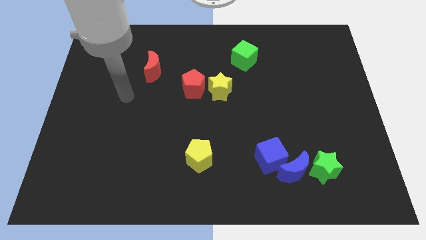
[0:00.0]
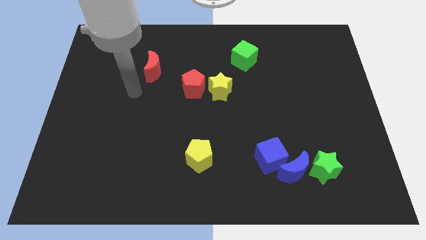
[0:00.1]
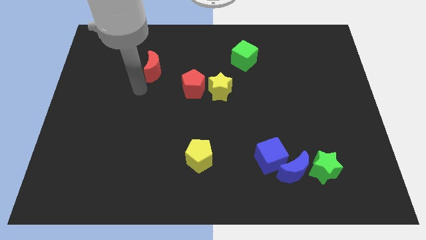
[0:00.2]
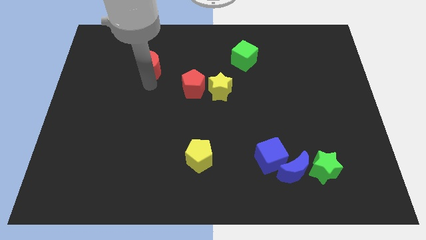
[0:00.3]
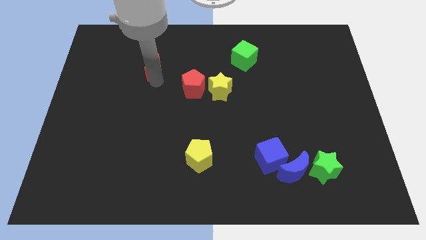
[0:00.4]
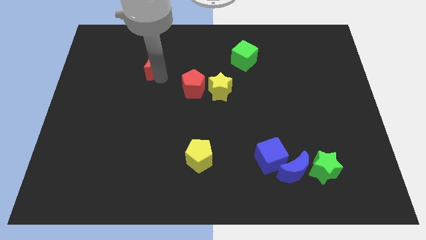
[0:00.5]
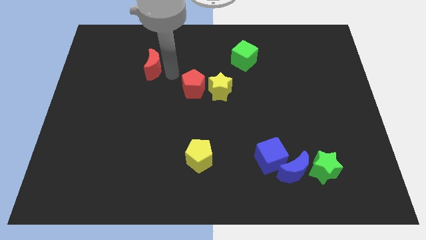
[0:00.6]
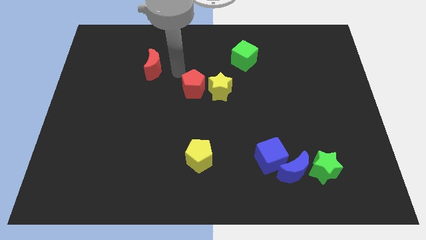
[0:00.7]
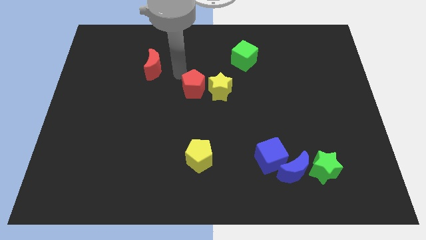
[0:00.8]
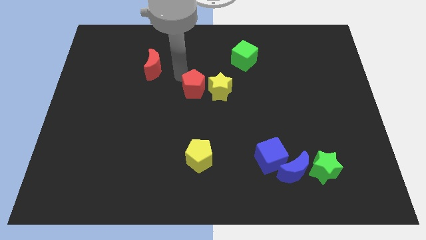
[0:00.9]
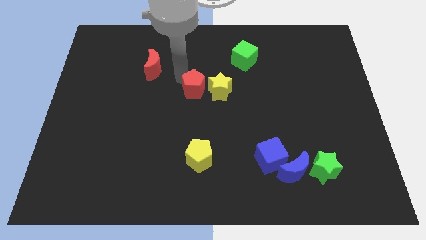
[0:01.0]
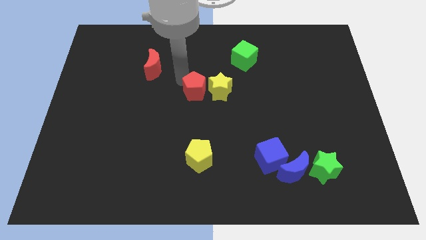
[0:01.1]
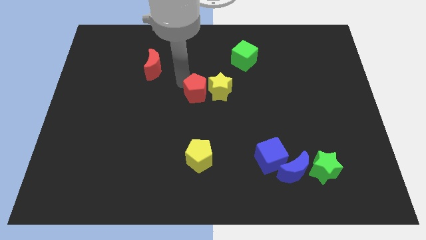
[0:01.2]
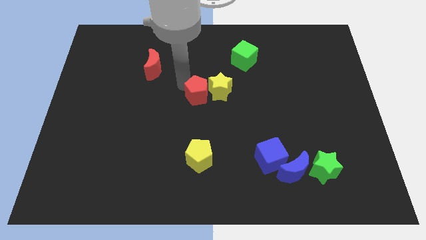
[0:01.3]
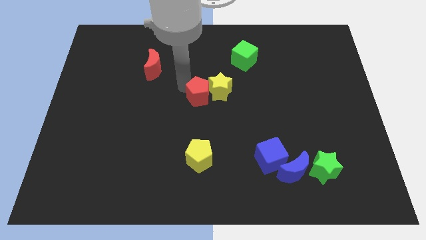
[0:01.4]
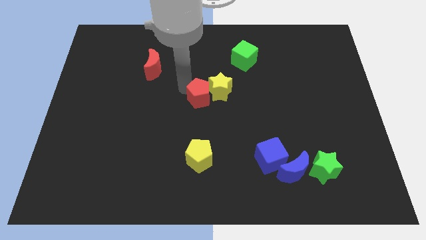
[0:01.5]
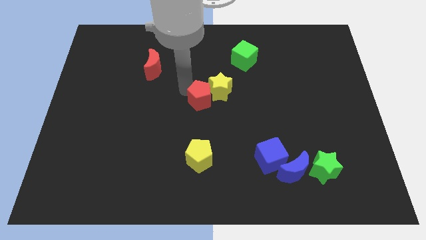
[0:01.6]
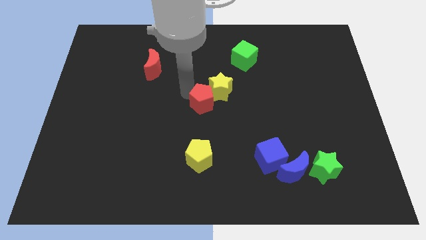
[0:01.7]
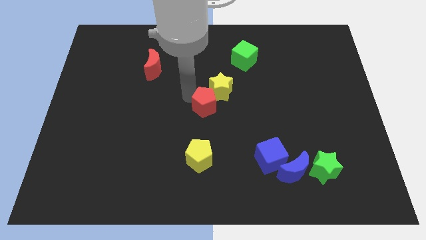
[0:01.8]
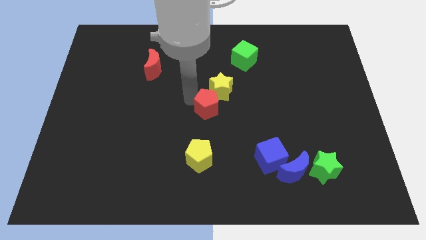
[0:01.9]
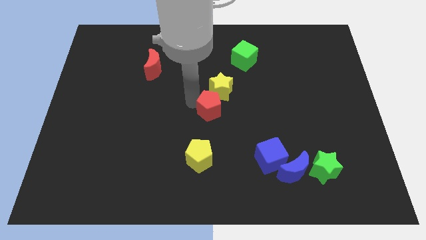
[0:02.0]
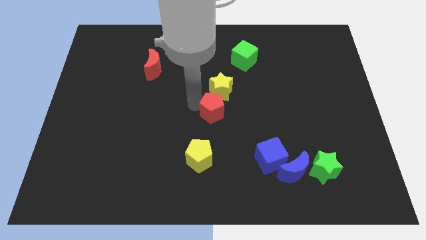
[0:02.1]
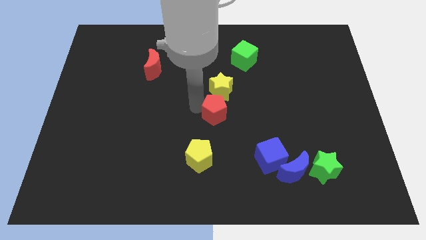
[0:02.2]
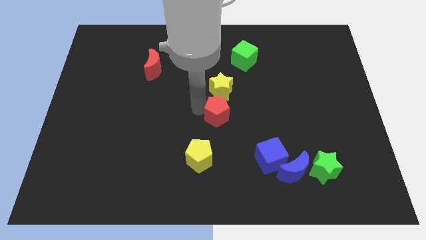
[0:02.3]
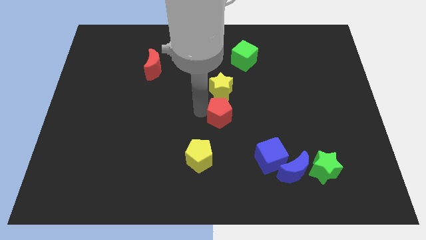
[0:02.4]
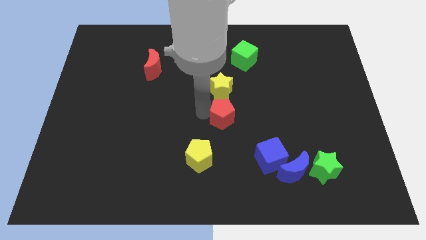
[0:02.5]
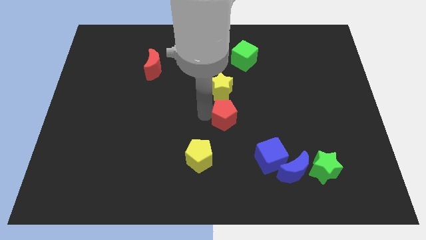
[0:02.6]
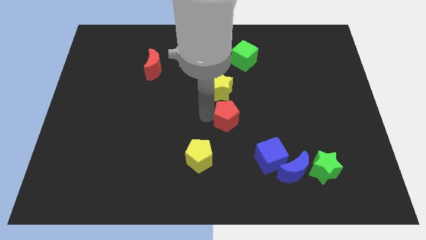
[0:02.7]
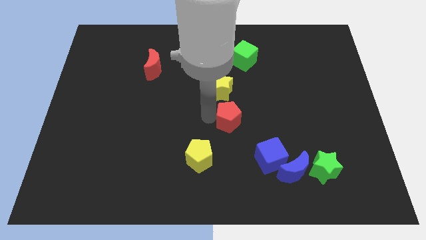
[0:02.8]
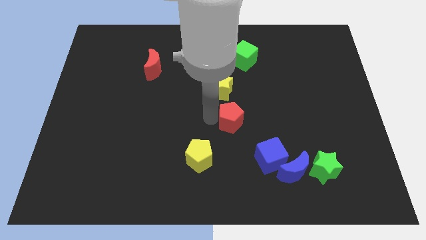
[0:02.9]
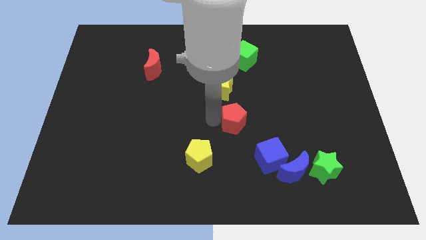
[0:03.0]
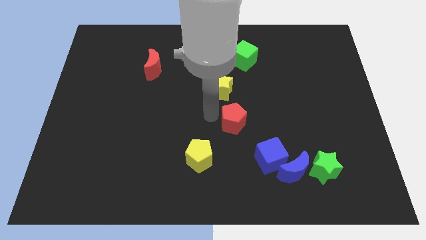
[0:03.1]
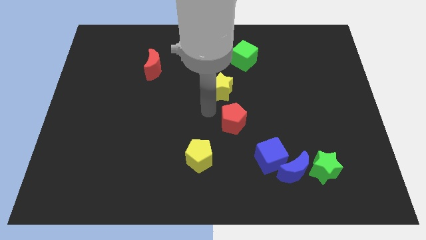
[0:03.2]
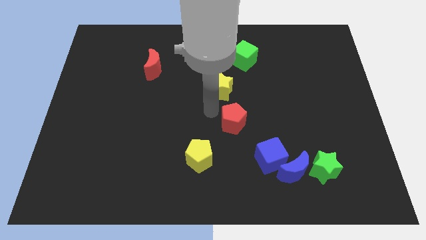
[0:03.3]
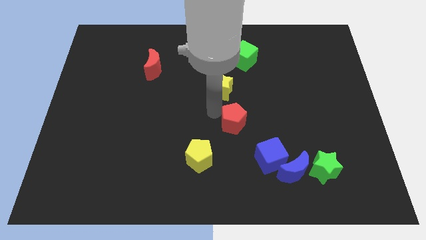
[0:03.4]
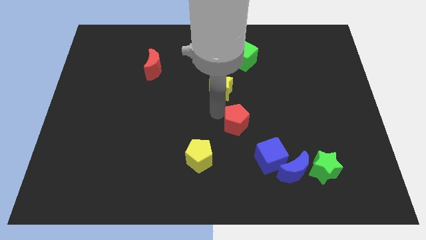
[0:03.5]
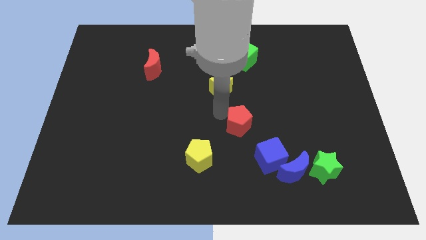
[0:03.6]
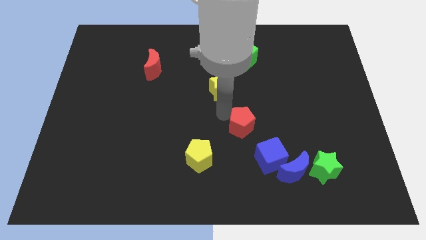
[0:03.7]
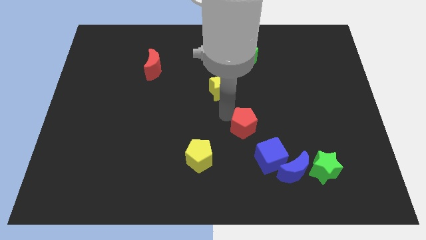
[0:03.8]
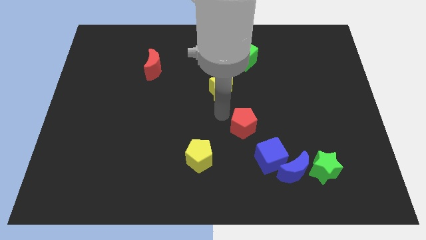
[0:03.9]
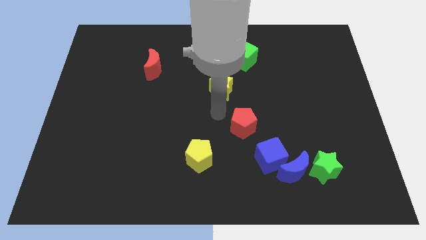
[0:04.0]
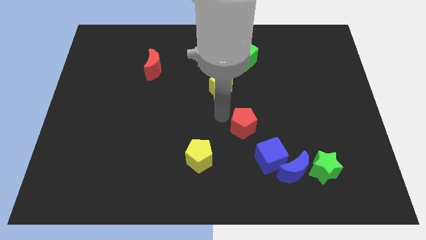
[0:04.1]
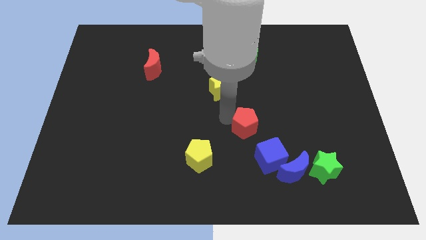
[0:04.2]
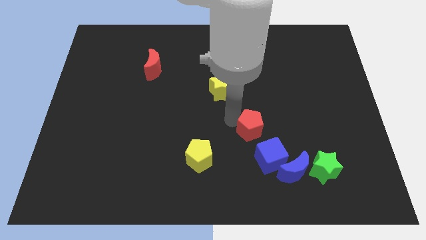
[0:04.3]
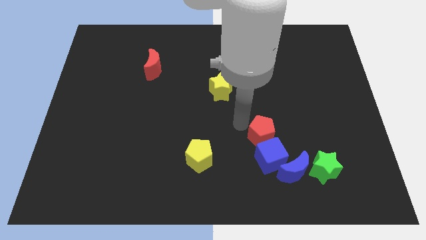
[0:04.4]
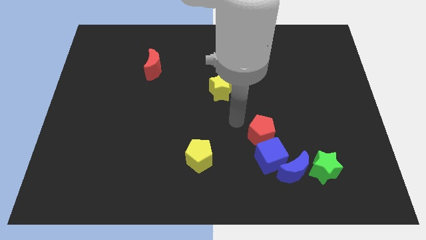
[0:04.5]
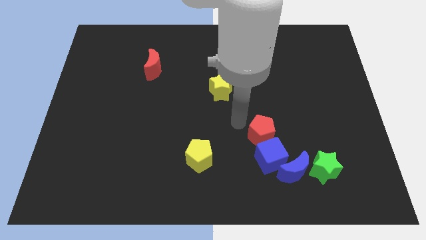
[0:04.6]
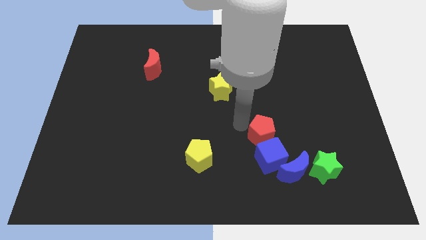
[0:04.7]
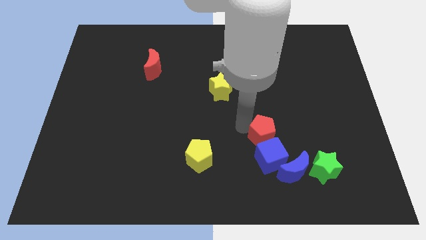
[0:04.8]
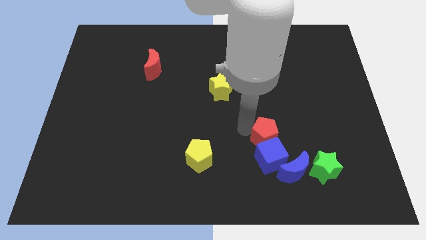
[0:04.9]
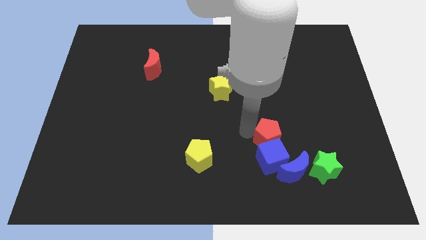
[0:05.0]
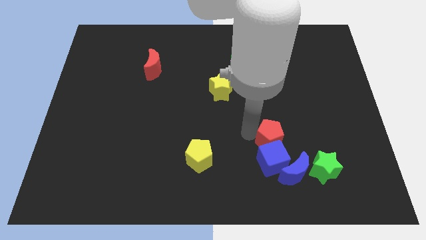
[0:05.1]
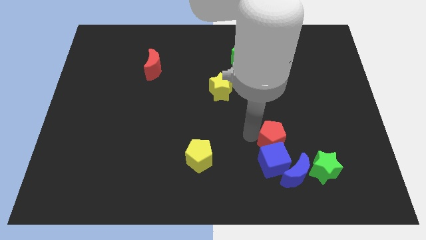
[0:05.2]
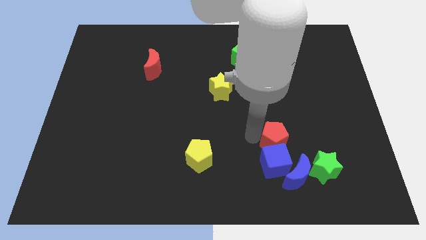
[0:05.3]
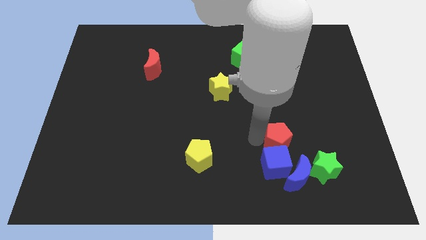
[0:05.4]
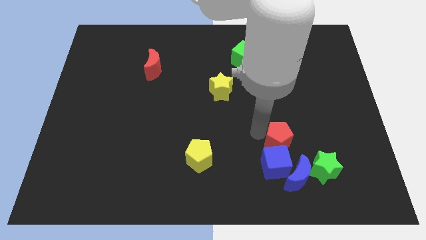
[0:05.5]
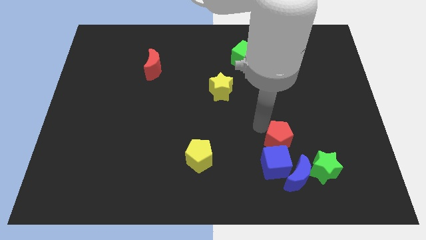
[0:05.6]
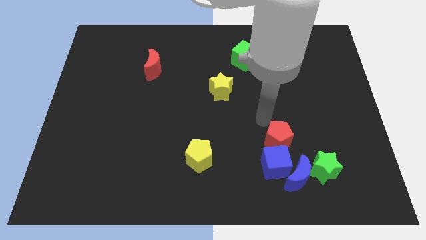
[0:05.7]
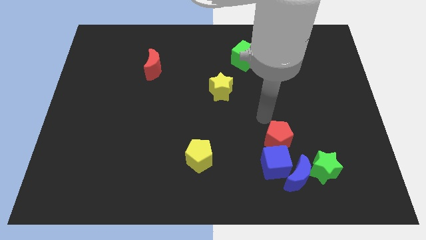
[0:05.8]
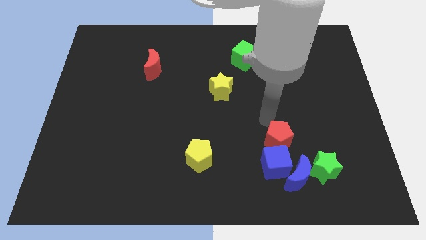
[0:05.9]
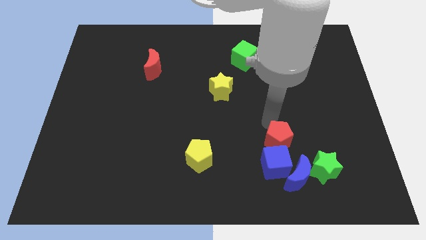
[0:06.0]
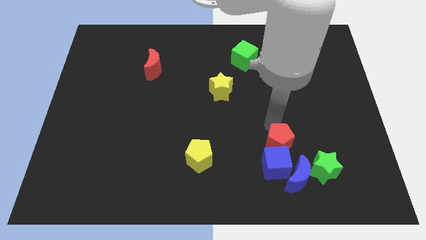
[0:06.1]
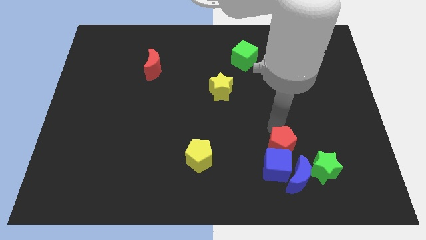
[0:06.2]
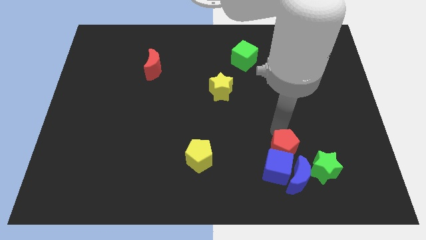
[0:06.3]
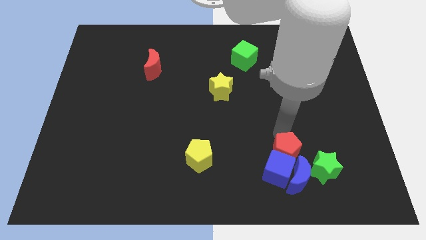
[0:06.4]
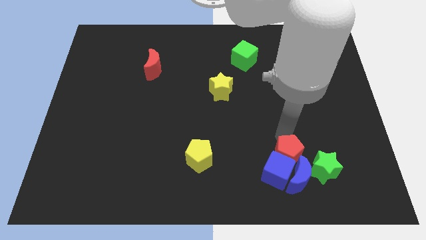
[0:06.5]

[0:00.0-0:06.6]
push the red pentagon close to the blue moon
